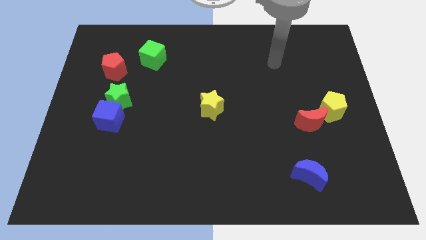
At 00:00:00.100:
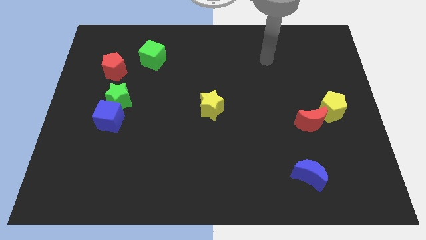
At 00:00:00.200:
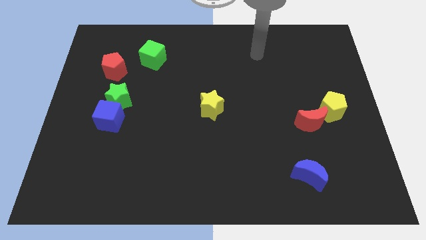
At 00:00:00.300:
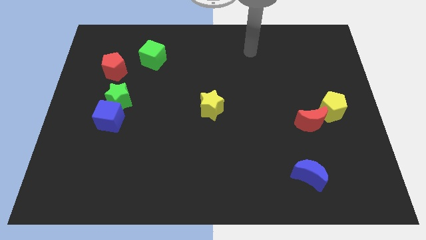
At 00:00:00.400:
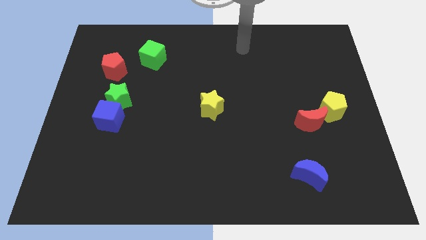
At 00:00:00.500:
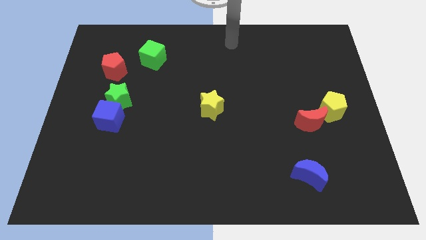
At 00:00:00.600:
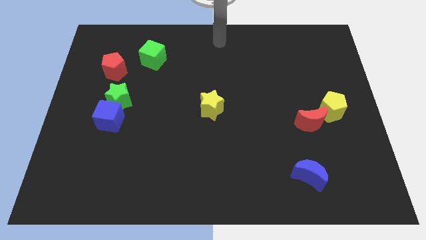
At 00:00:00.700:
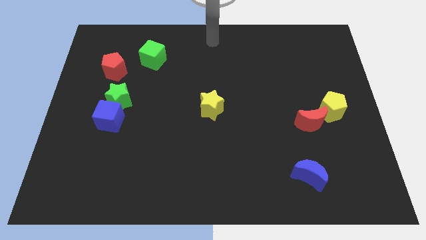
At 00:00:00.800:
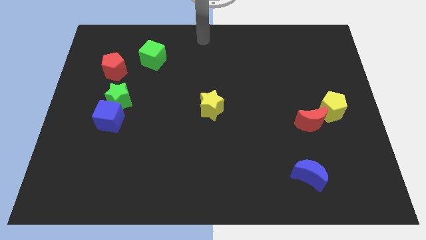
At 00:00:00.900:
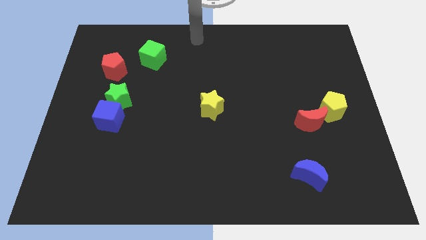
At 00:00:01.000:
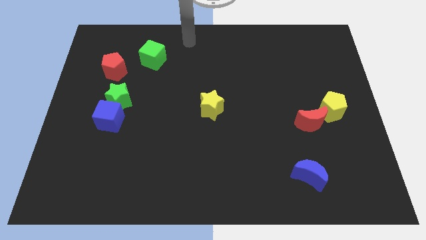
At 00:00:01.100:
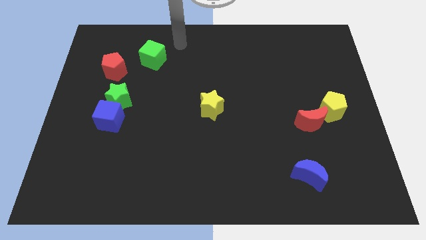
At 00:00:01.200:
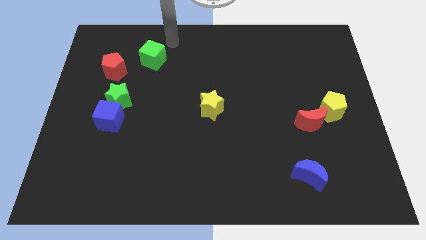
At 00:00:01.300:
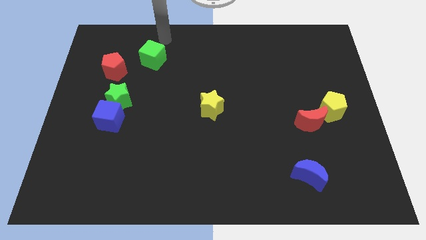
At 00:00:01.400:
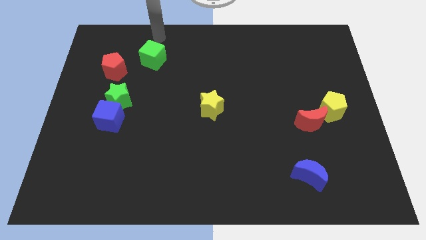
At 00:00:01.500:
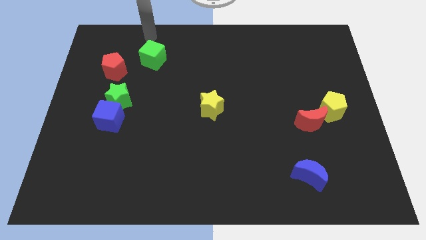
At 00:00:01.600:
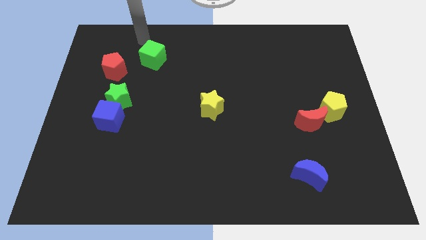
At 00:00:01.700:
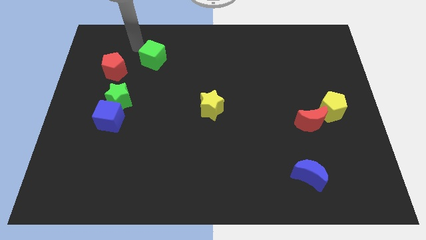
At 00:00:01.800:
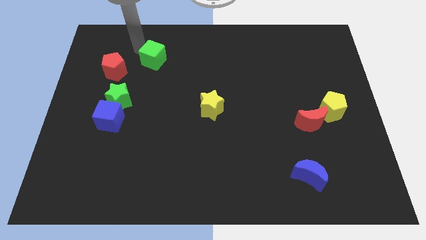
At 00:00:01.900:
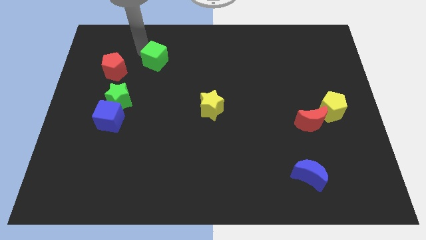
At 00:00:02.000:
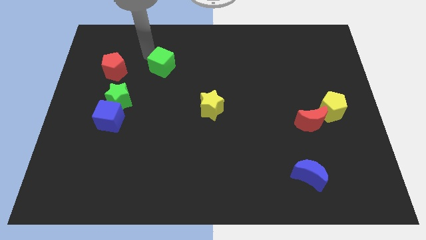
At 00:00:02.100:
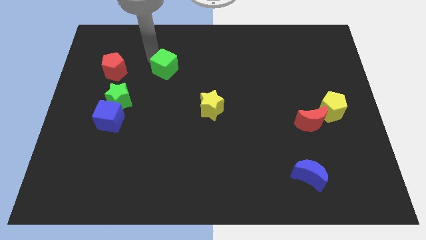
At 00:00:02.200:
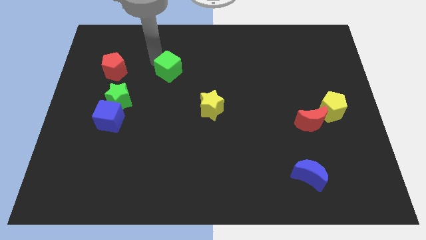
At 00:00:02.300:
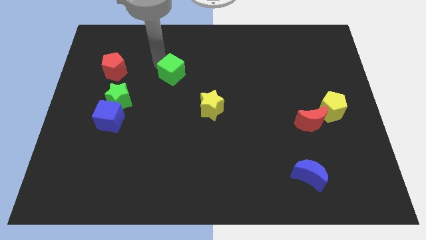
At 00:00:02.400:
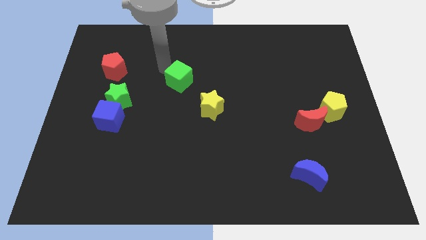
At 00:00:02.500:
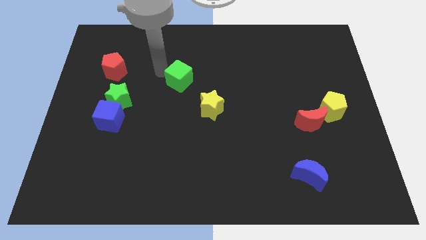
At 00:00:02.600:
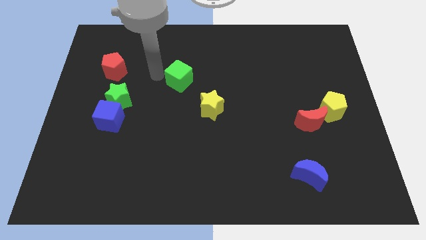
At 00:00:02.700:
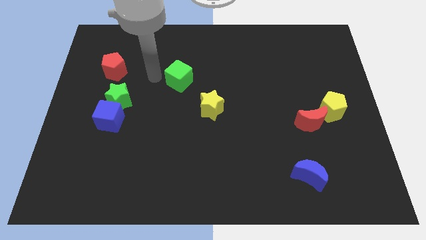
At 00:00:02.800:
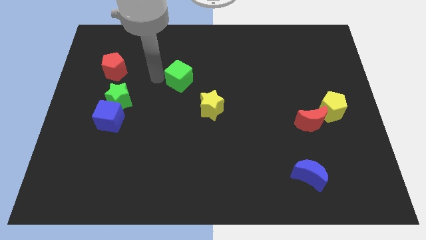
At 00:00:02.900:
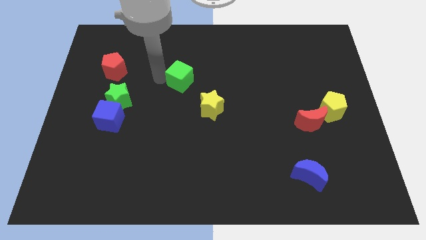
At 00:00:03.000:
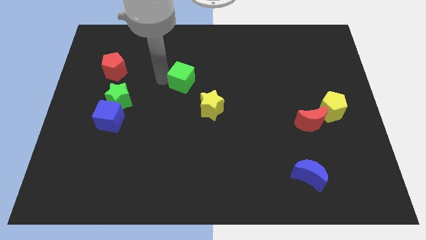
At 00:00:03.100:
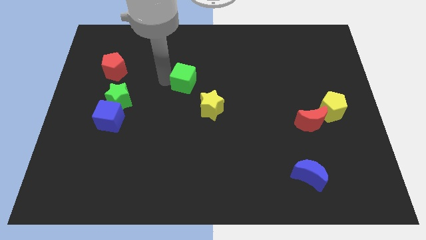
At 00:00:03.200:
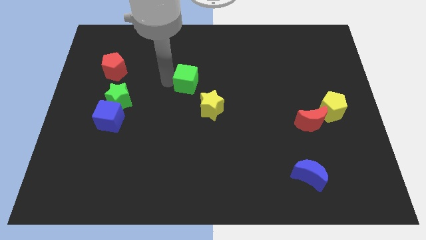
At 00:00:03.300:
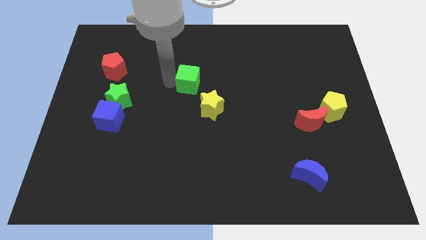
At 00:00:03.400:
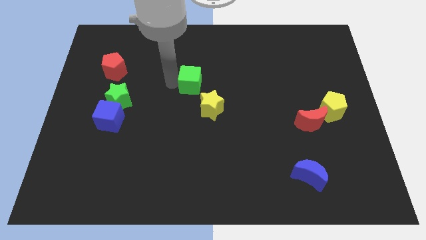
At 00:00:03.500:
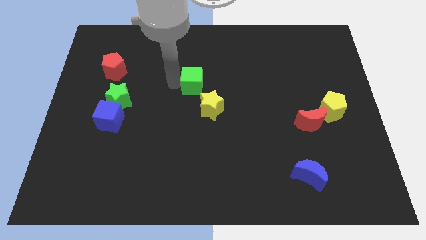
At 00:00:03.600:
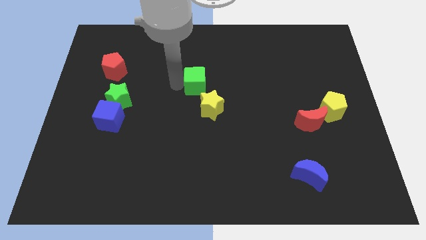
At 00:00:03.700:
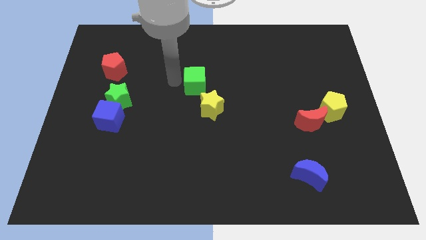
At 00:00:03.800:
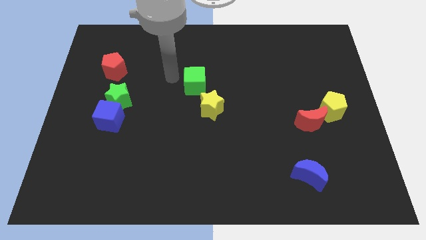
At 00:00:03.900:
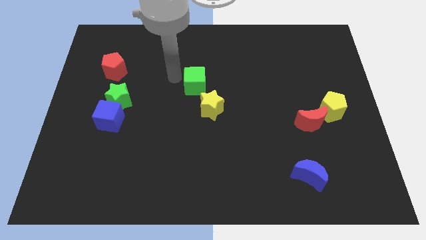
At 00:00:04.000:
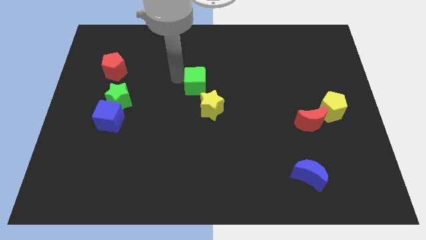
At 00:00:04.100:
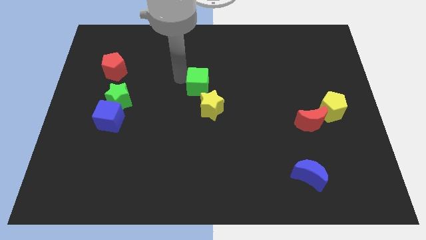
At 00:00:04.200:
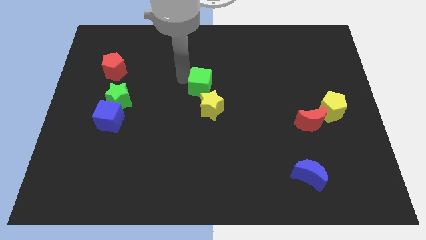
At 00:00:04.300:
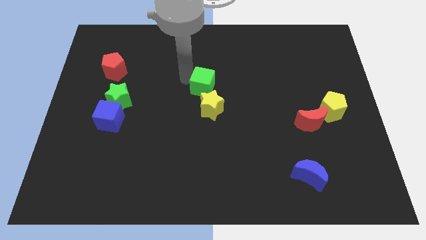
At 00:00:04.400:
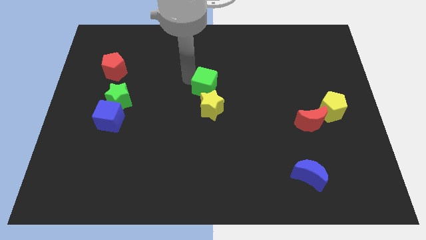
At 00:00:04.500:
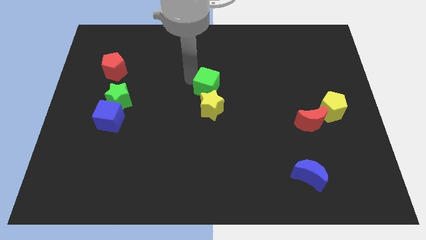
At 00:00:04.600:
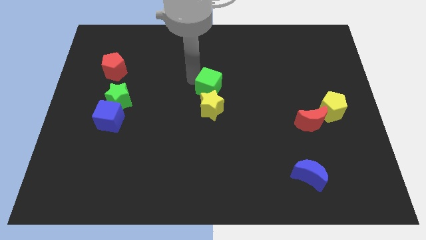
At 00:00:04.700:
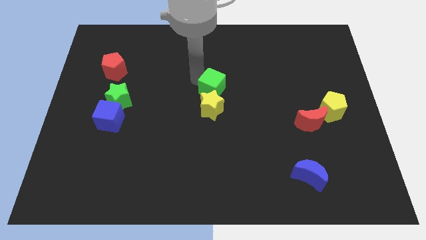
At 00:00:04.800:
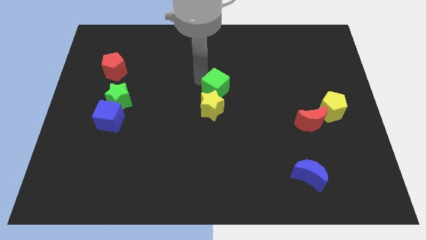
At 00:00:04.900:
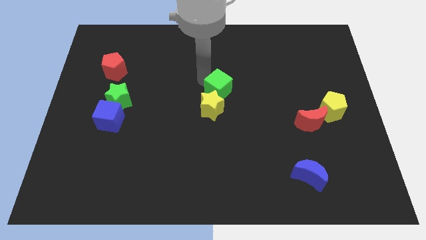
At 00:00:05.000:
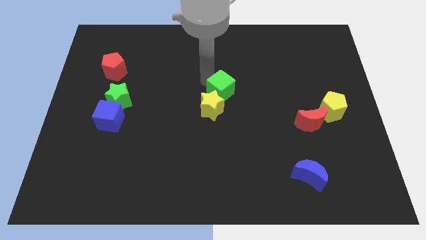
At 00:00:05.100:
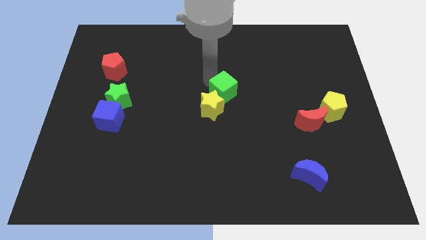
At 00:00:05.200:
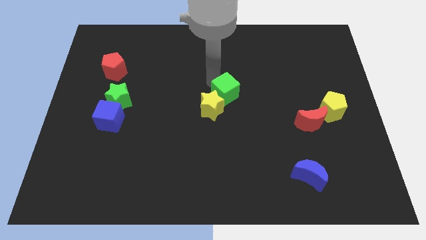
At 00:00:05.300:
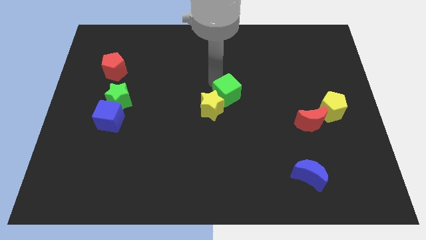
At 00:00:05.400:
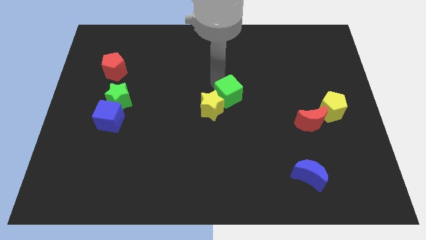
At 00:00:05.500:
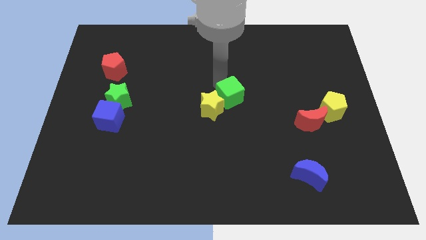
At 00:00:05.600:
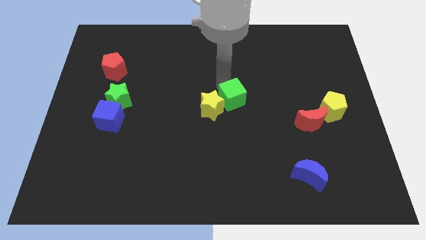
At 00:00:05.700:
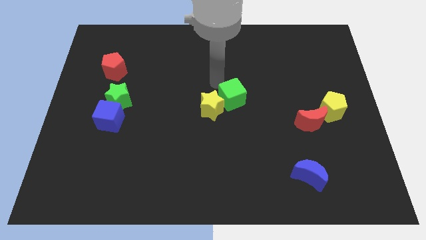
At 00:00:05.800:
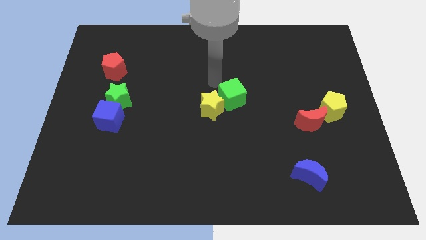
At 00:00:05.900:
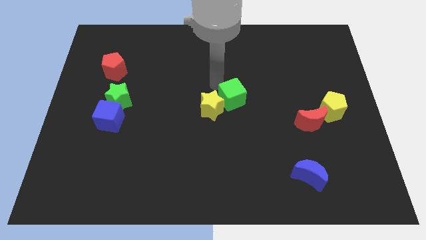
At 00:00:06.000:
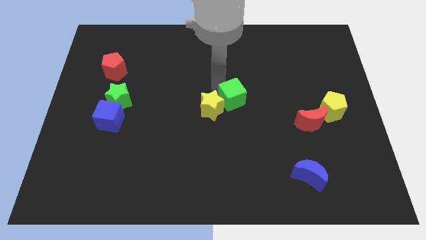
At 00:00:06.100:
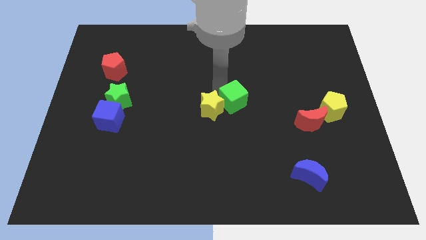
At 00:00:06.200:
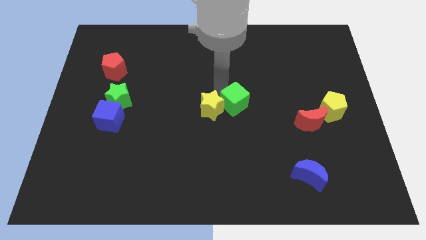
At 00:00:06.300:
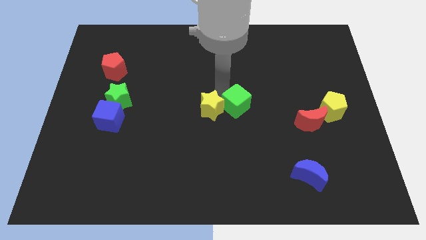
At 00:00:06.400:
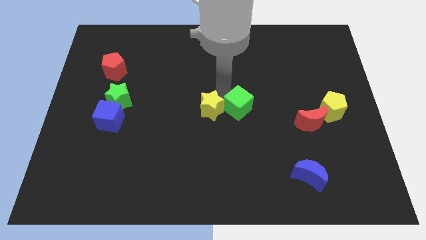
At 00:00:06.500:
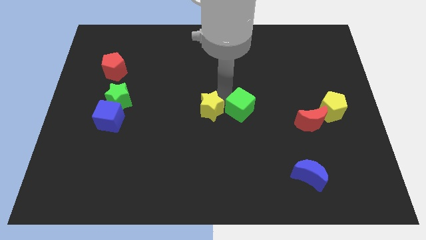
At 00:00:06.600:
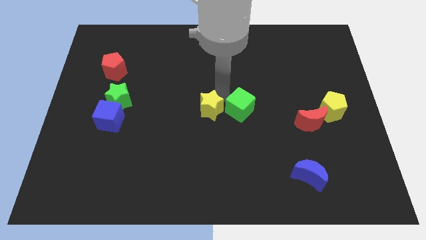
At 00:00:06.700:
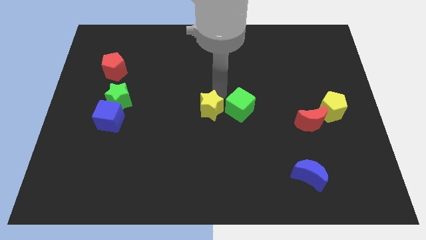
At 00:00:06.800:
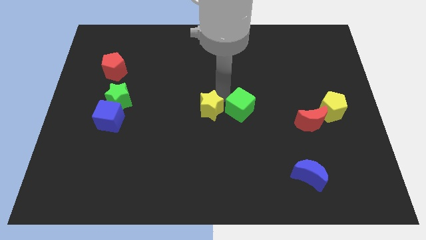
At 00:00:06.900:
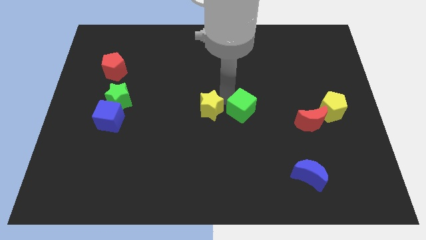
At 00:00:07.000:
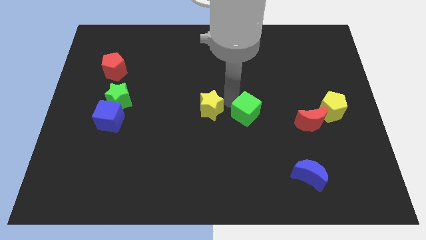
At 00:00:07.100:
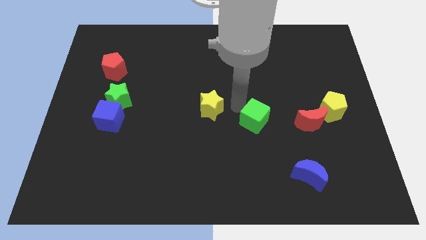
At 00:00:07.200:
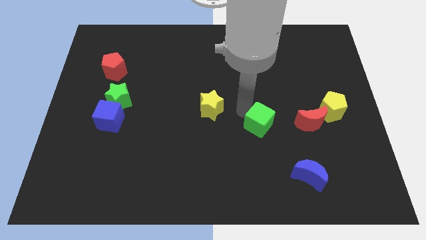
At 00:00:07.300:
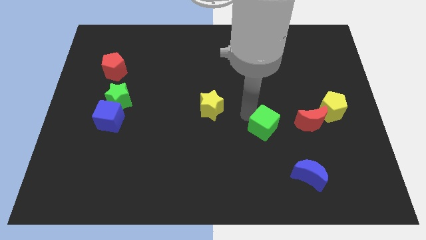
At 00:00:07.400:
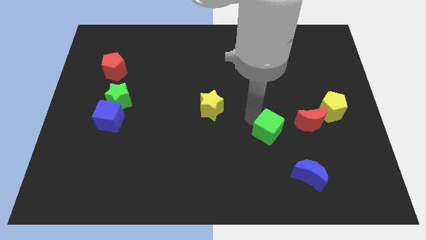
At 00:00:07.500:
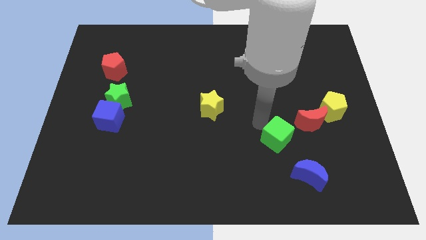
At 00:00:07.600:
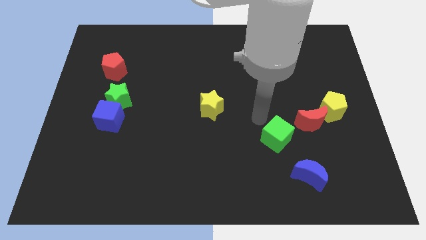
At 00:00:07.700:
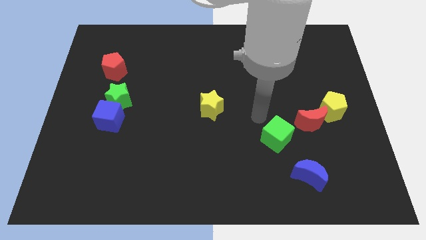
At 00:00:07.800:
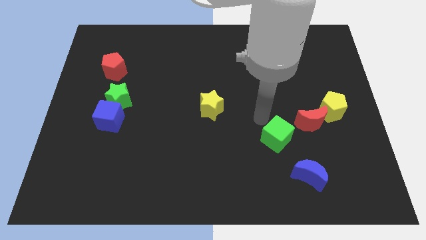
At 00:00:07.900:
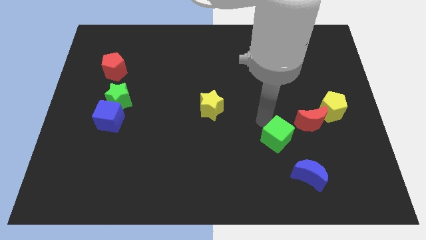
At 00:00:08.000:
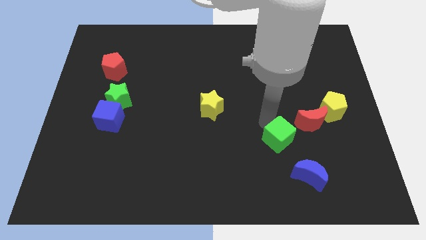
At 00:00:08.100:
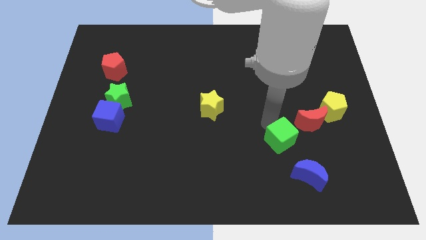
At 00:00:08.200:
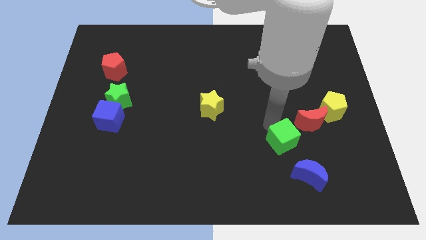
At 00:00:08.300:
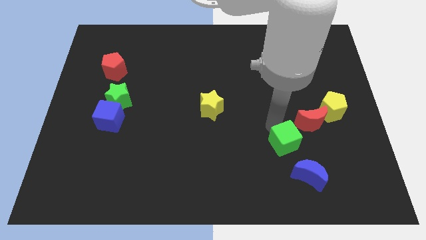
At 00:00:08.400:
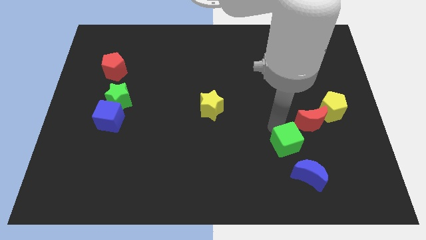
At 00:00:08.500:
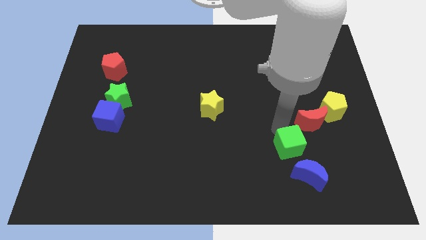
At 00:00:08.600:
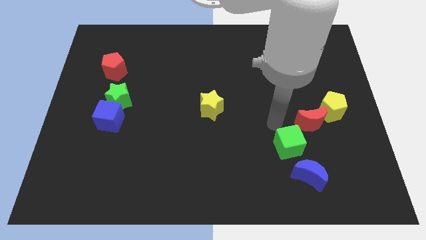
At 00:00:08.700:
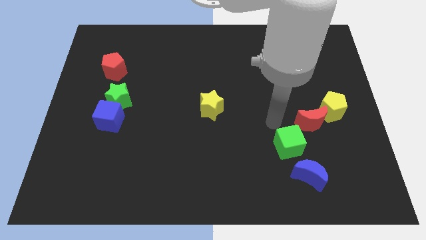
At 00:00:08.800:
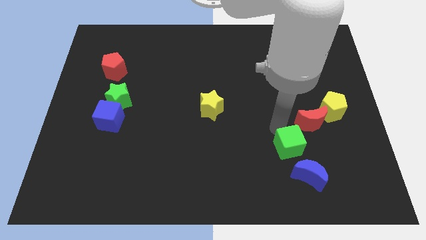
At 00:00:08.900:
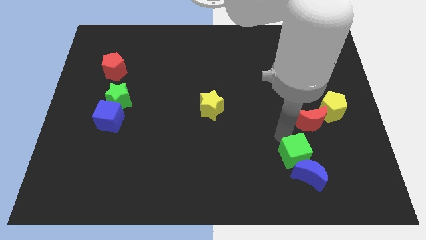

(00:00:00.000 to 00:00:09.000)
move the green cube to the blue moon
